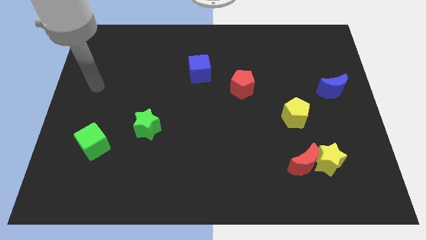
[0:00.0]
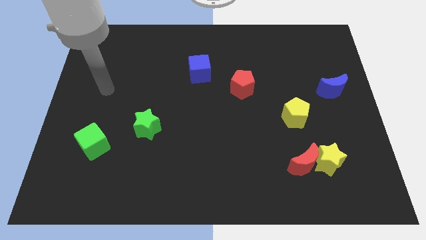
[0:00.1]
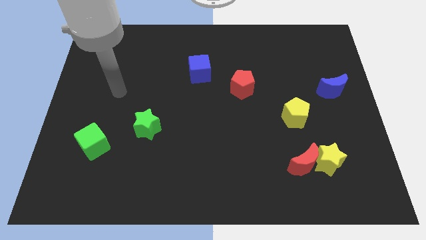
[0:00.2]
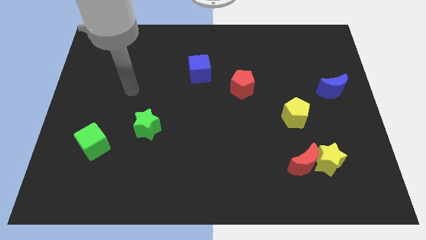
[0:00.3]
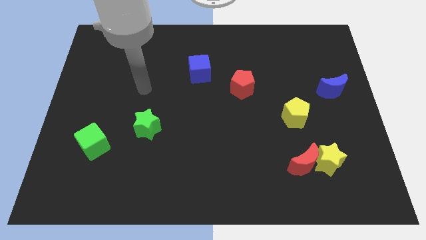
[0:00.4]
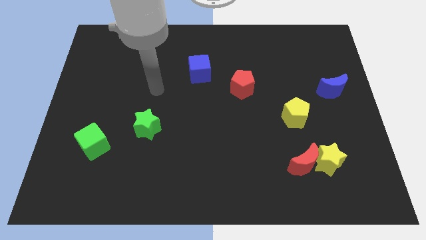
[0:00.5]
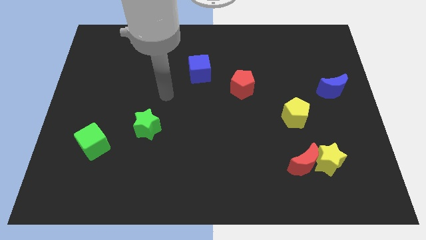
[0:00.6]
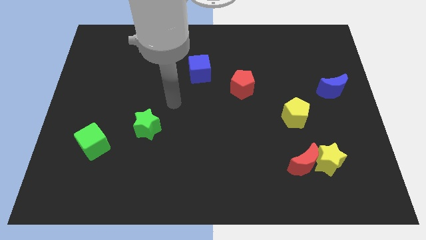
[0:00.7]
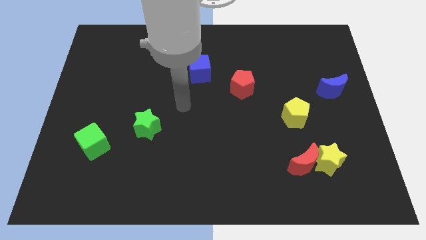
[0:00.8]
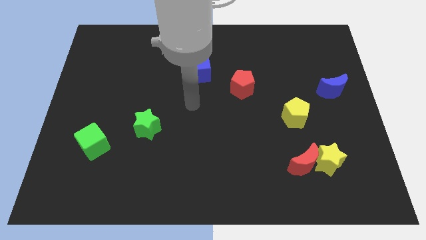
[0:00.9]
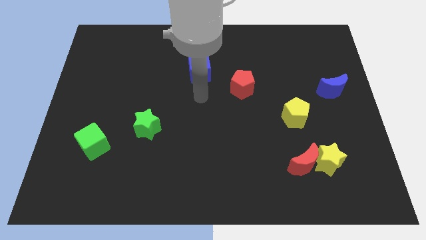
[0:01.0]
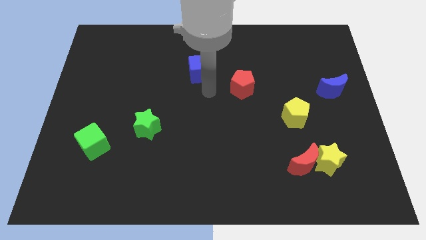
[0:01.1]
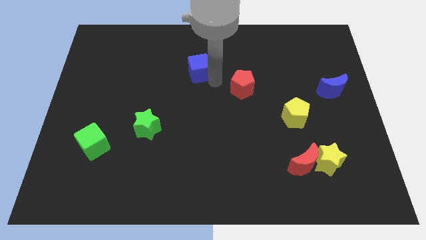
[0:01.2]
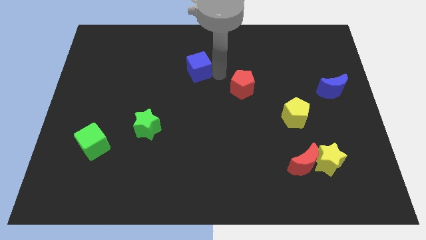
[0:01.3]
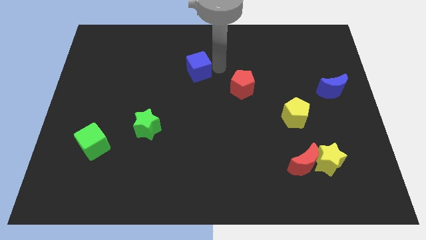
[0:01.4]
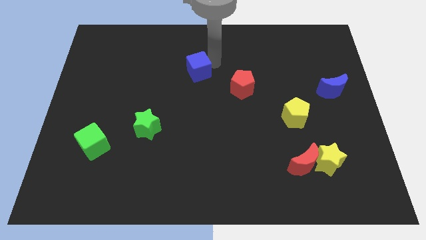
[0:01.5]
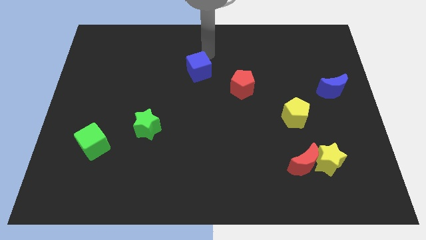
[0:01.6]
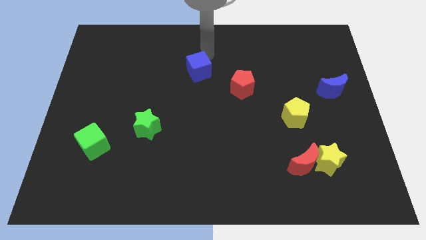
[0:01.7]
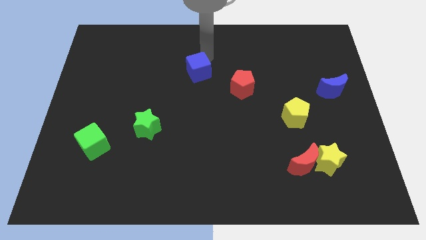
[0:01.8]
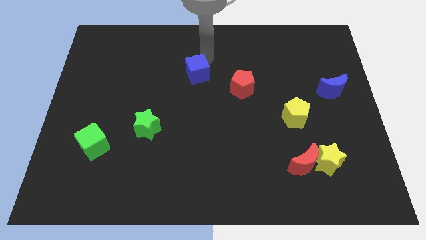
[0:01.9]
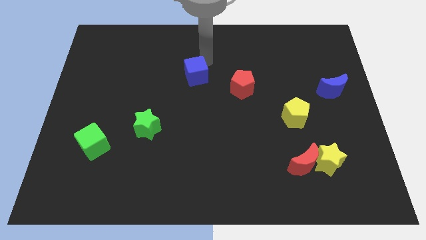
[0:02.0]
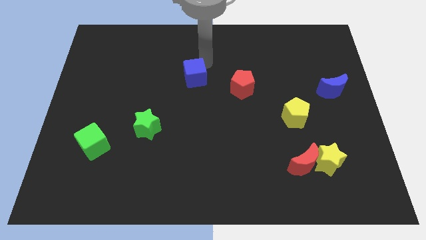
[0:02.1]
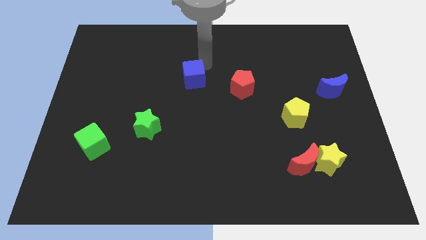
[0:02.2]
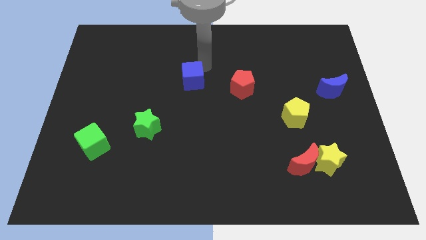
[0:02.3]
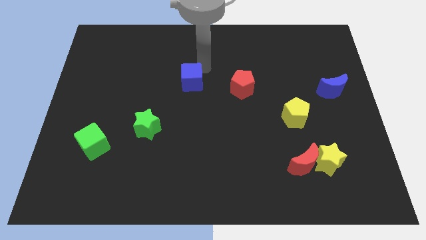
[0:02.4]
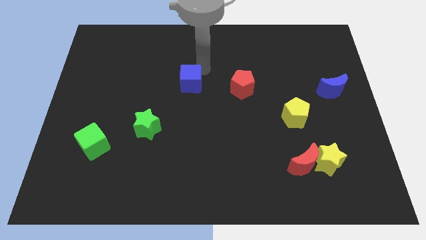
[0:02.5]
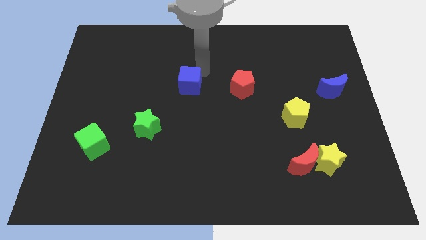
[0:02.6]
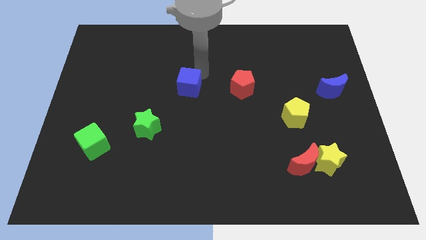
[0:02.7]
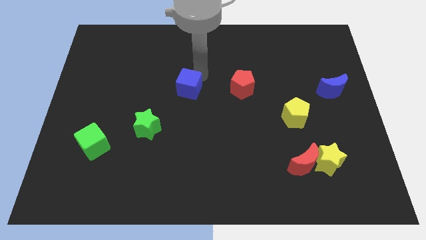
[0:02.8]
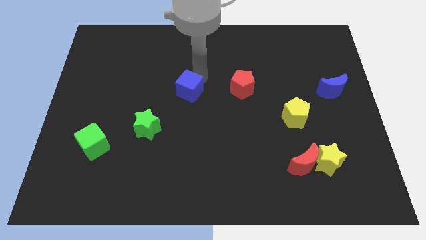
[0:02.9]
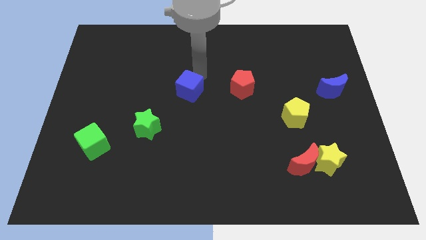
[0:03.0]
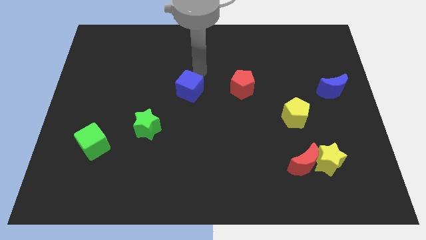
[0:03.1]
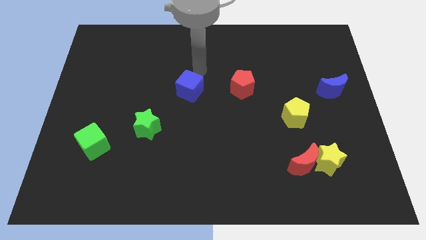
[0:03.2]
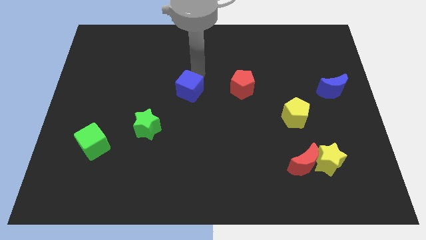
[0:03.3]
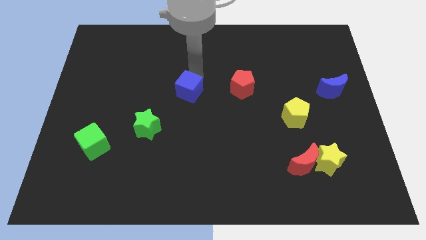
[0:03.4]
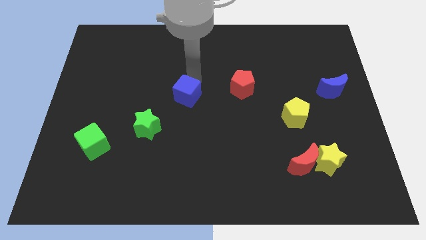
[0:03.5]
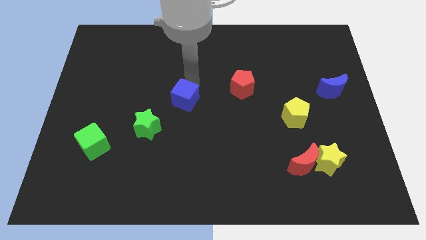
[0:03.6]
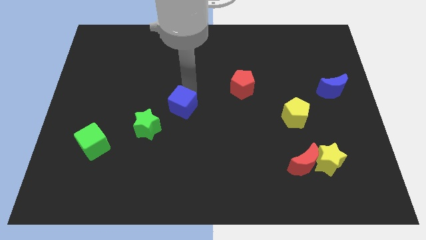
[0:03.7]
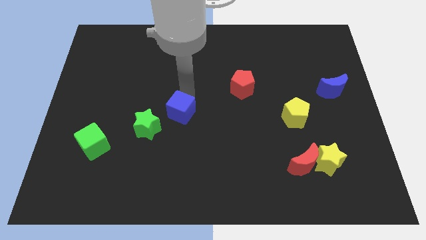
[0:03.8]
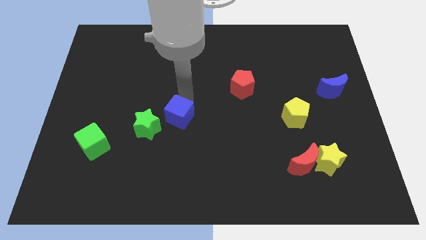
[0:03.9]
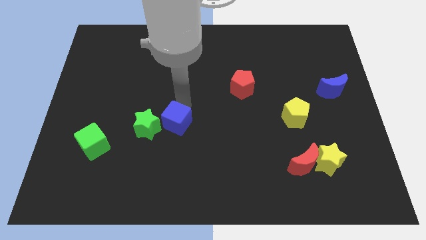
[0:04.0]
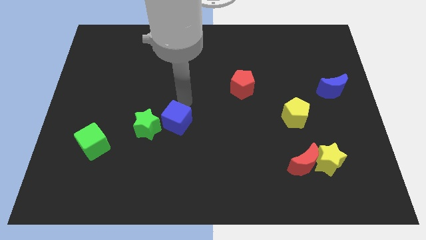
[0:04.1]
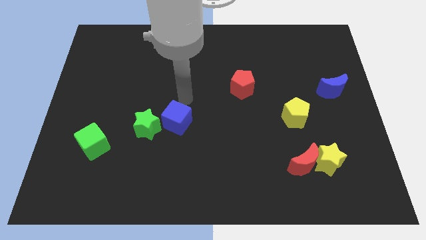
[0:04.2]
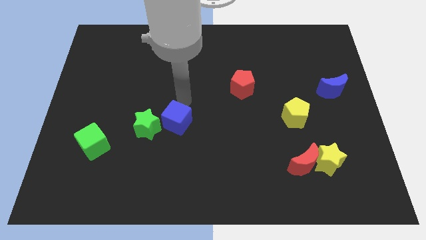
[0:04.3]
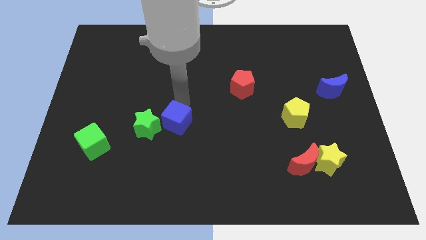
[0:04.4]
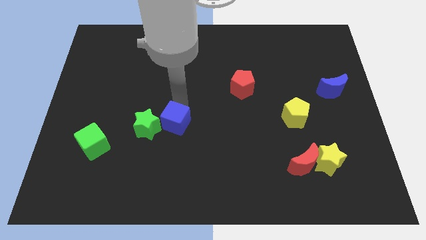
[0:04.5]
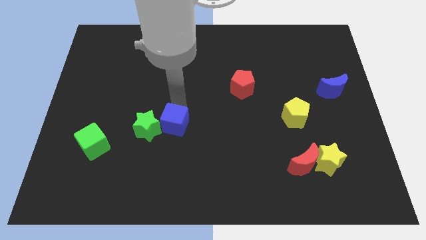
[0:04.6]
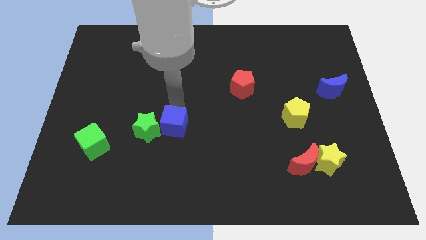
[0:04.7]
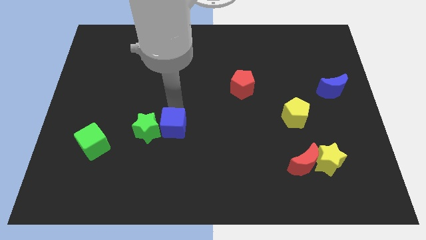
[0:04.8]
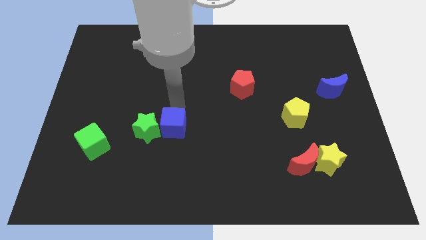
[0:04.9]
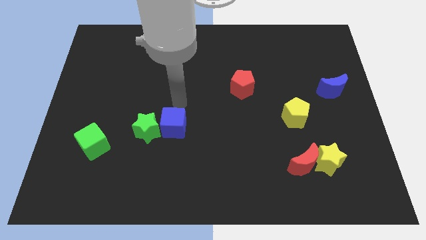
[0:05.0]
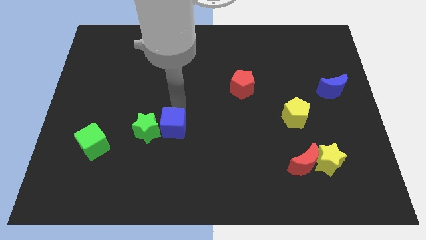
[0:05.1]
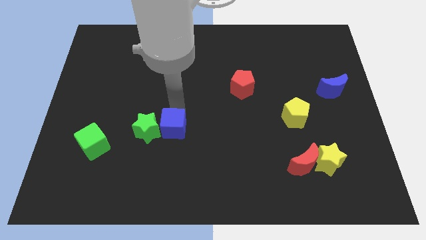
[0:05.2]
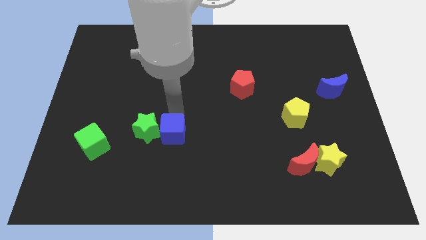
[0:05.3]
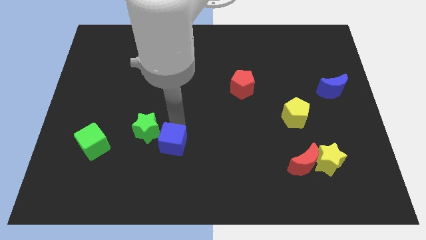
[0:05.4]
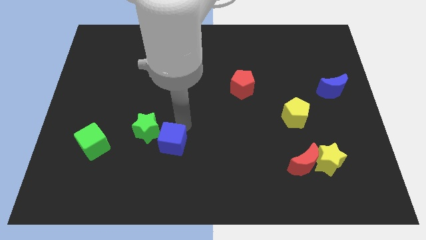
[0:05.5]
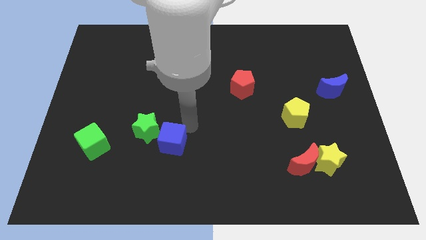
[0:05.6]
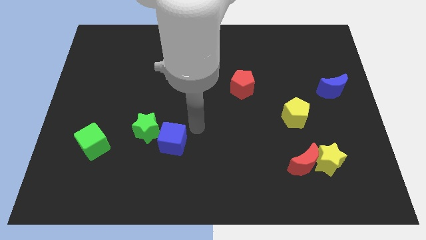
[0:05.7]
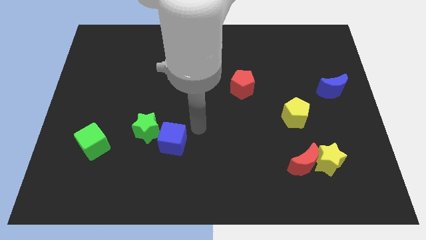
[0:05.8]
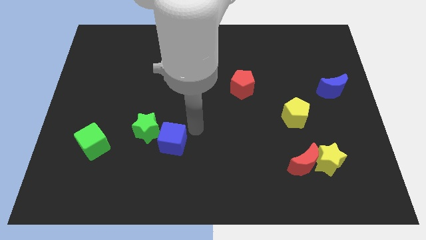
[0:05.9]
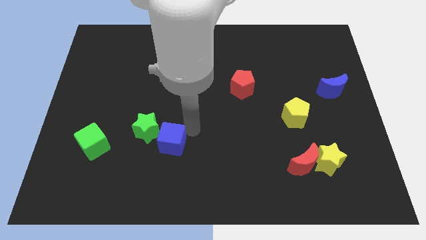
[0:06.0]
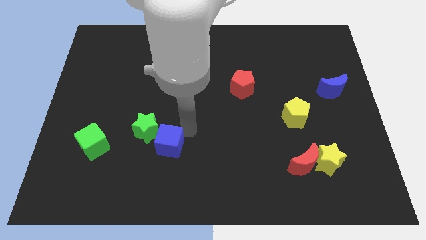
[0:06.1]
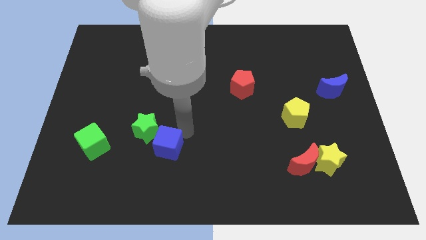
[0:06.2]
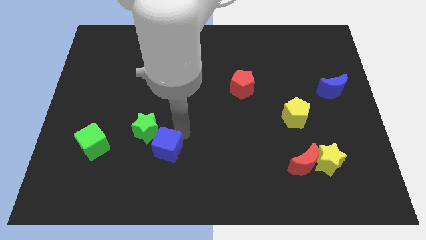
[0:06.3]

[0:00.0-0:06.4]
push the blue cube below the green star

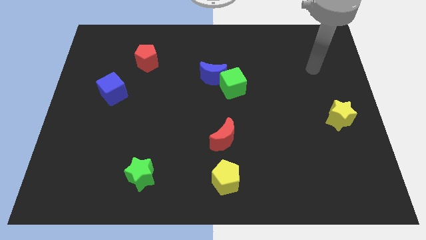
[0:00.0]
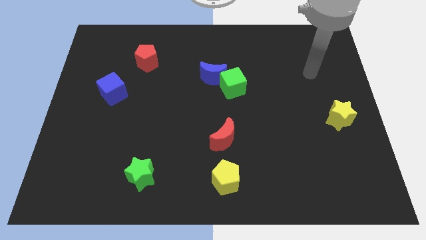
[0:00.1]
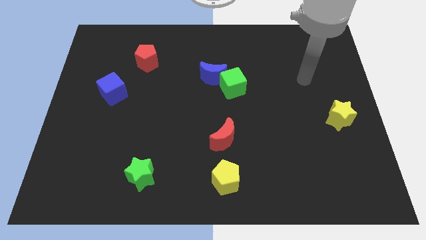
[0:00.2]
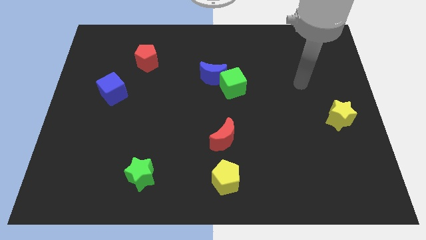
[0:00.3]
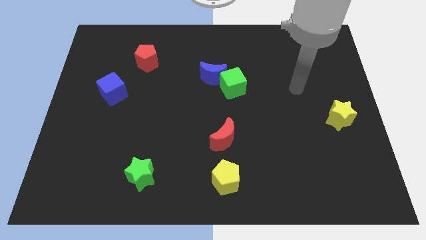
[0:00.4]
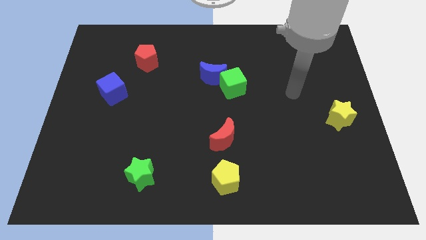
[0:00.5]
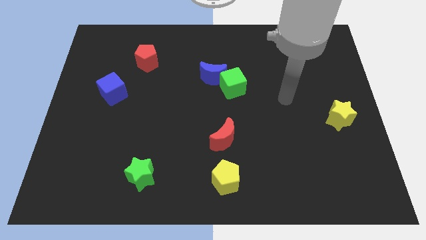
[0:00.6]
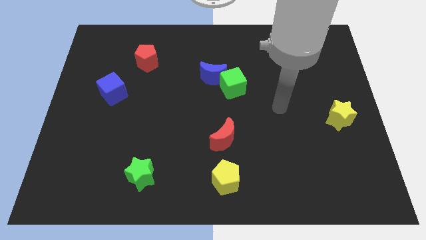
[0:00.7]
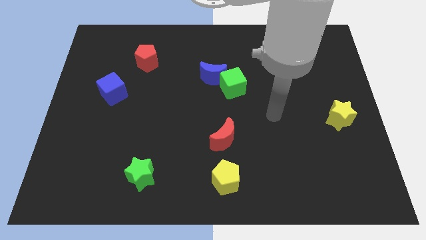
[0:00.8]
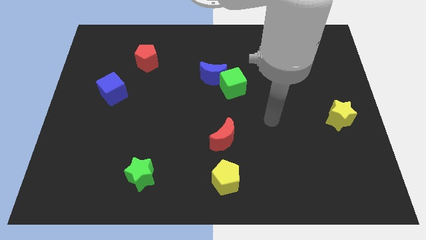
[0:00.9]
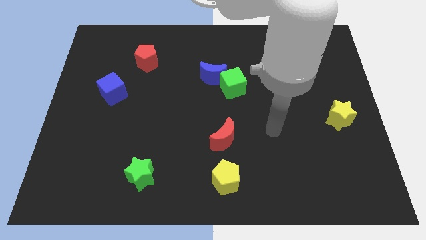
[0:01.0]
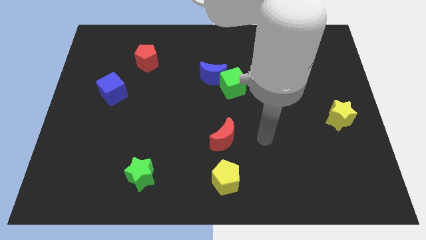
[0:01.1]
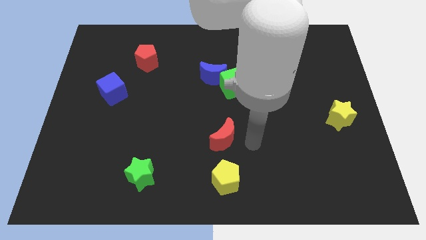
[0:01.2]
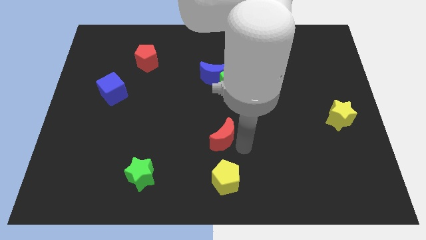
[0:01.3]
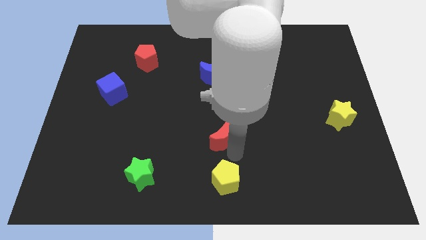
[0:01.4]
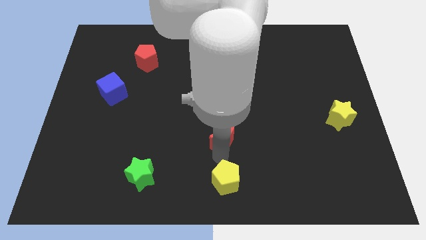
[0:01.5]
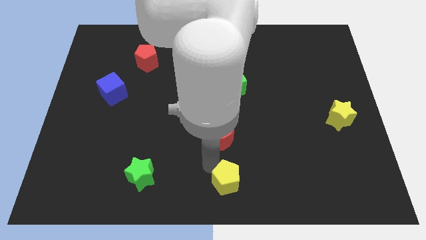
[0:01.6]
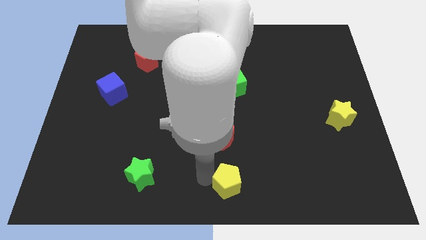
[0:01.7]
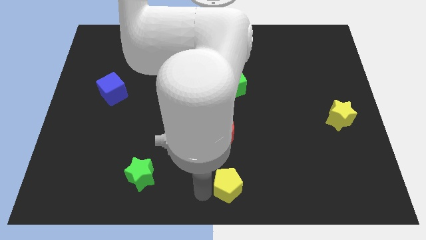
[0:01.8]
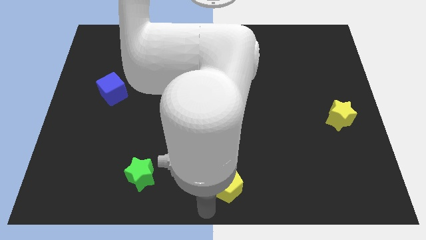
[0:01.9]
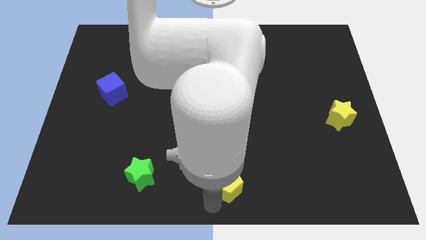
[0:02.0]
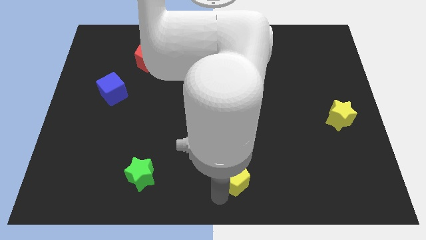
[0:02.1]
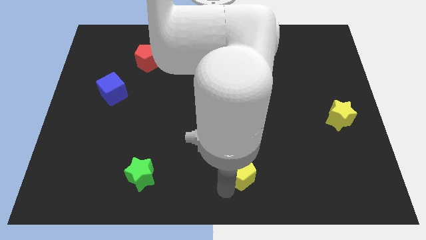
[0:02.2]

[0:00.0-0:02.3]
move the yellow pentagon to the bottom right side of the red moon
